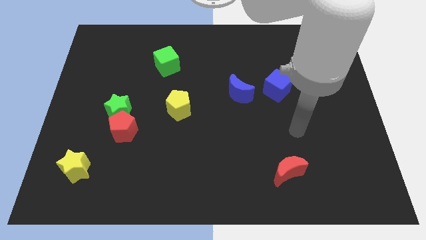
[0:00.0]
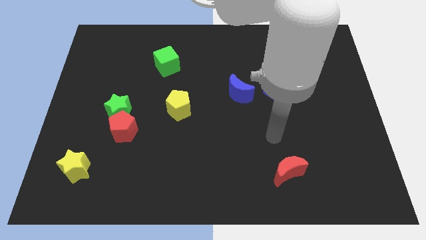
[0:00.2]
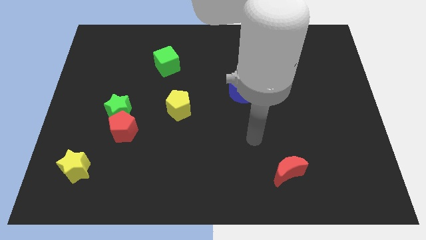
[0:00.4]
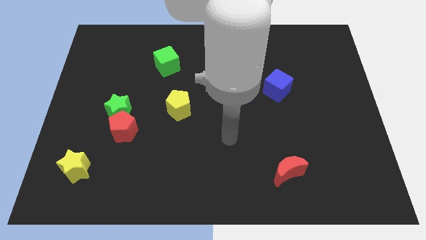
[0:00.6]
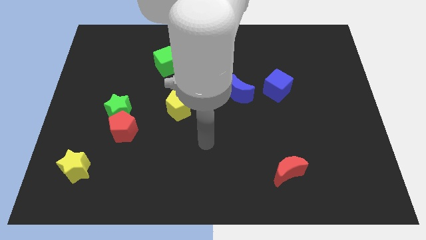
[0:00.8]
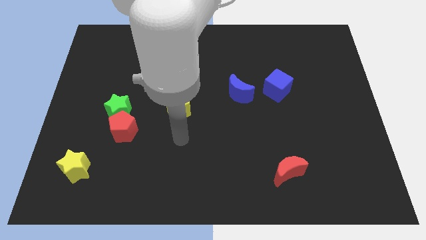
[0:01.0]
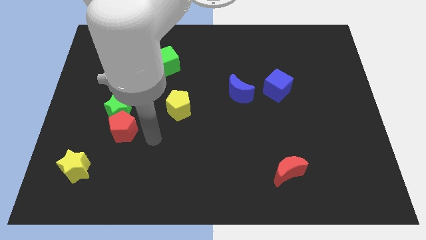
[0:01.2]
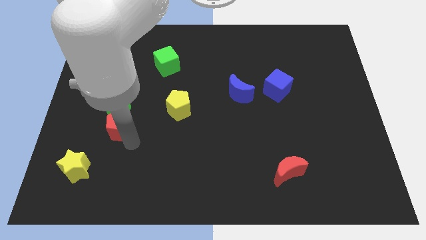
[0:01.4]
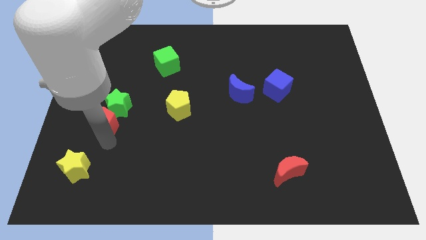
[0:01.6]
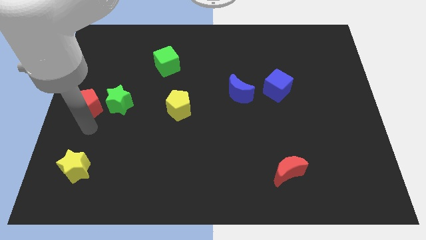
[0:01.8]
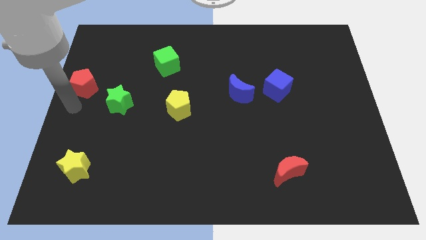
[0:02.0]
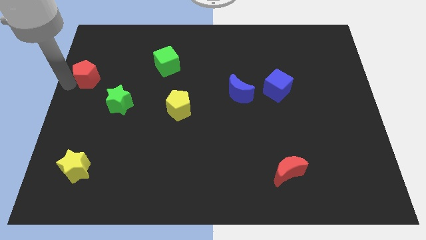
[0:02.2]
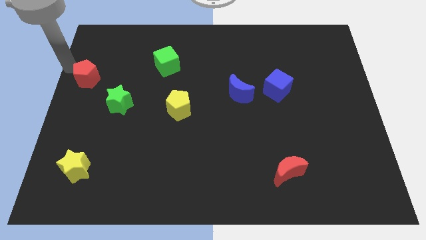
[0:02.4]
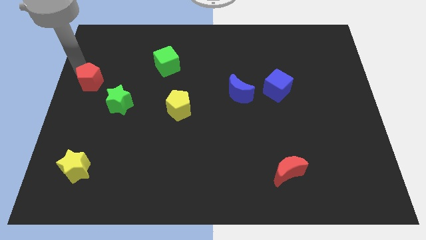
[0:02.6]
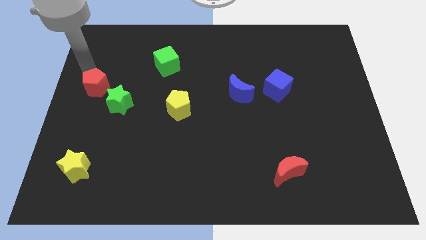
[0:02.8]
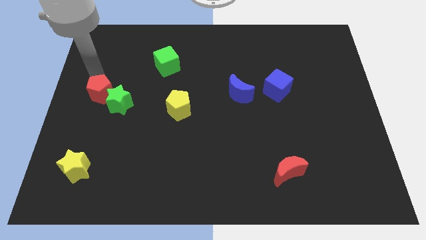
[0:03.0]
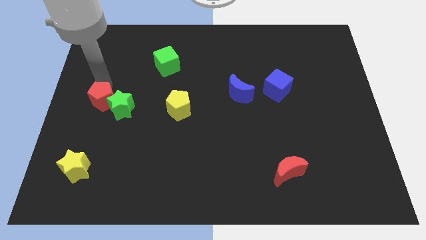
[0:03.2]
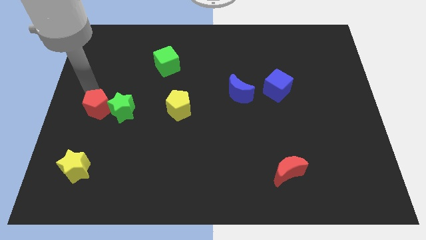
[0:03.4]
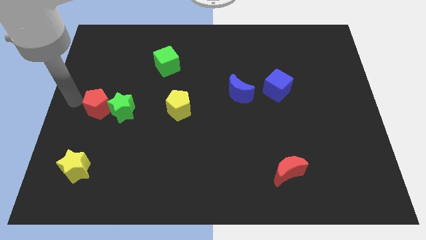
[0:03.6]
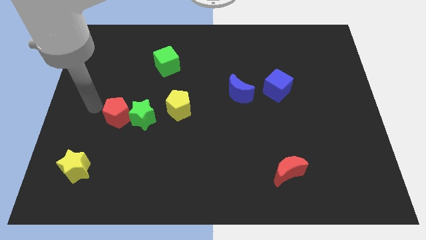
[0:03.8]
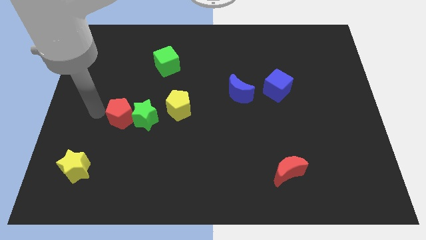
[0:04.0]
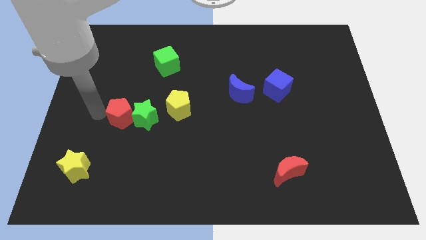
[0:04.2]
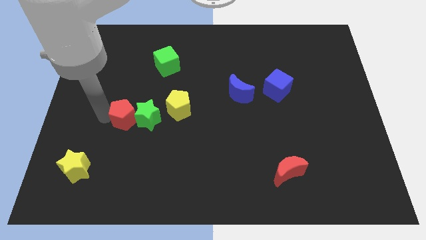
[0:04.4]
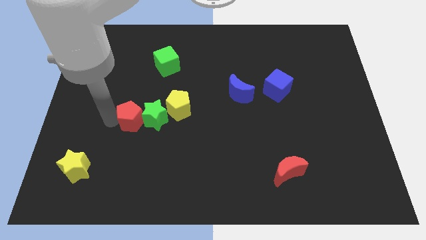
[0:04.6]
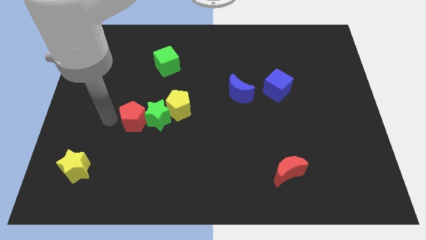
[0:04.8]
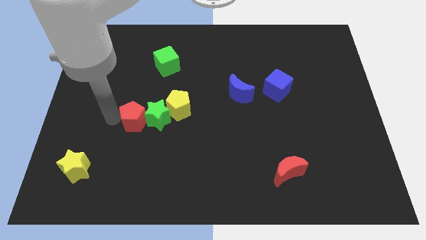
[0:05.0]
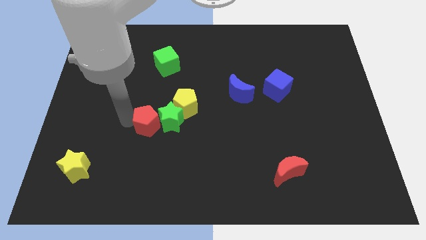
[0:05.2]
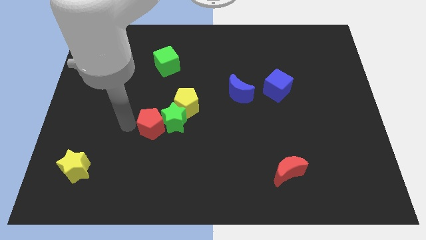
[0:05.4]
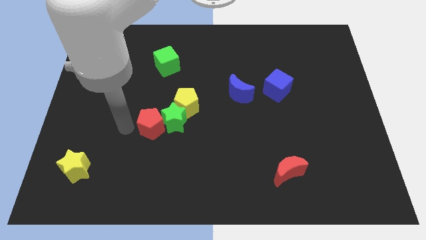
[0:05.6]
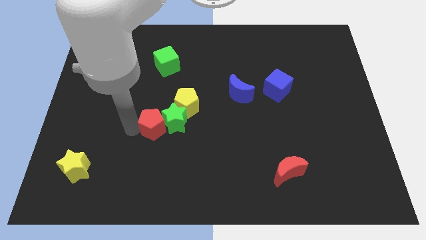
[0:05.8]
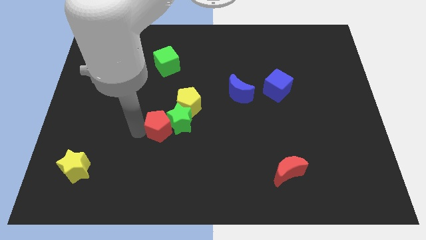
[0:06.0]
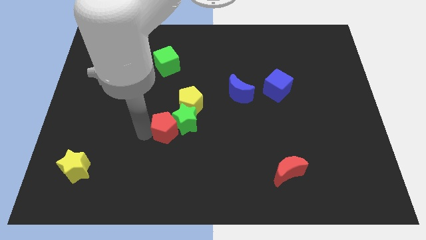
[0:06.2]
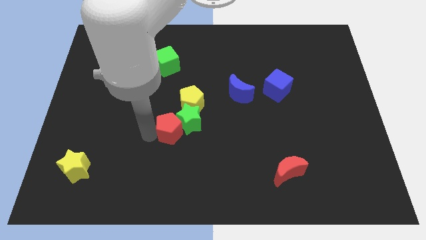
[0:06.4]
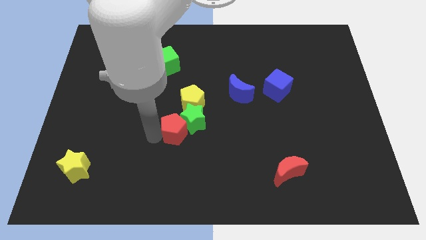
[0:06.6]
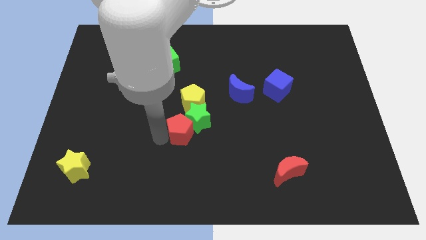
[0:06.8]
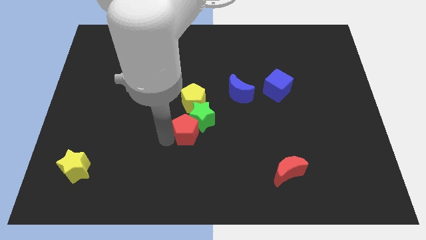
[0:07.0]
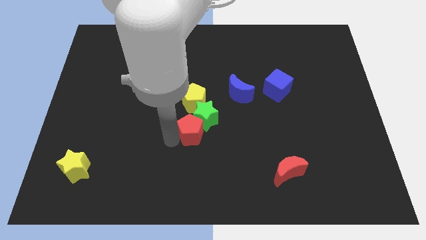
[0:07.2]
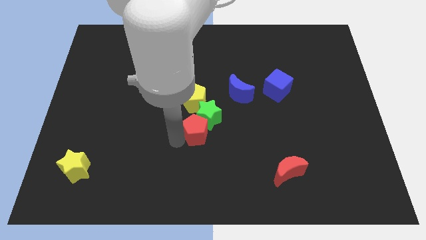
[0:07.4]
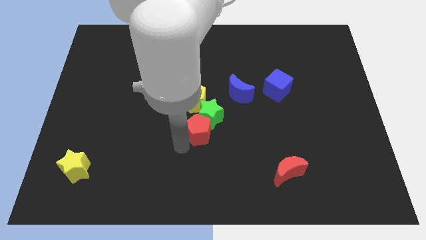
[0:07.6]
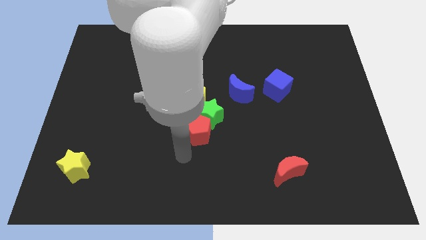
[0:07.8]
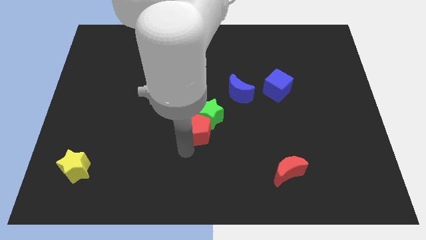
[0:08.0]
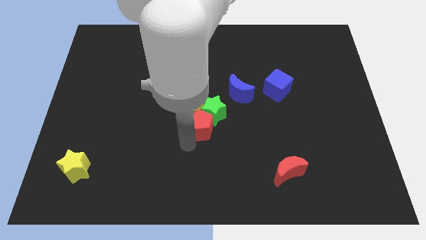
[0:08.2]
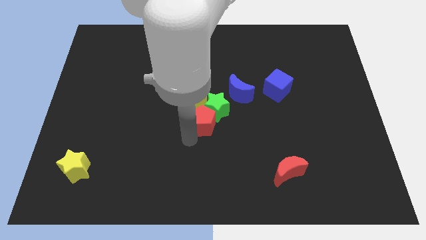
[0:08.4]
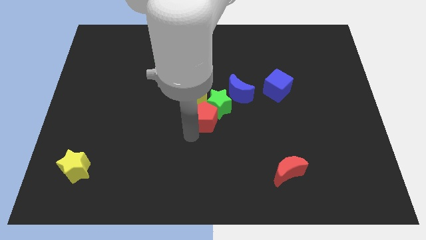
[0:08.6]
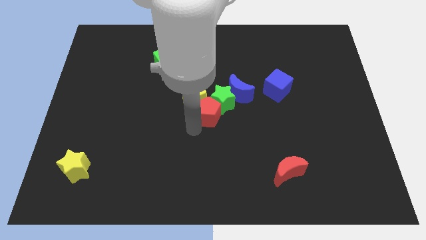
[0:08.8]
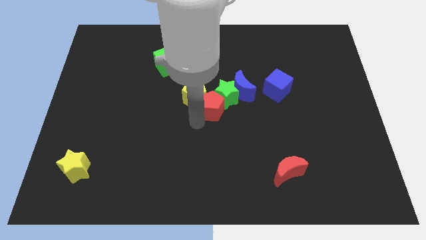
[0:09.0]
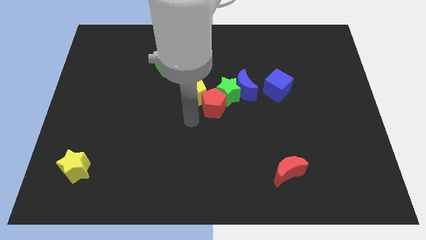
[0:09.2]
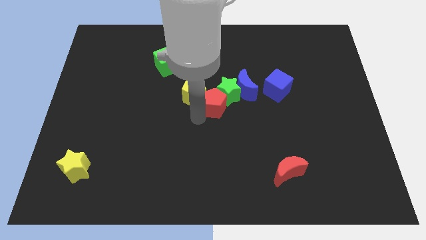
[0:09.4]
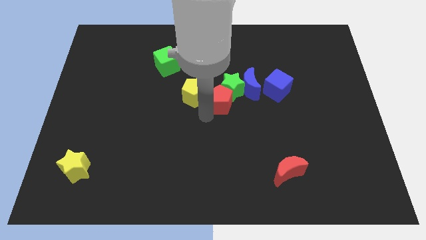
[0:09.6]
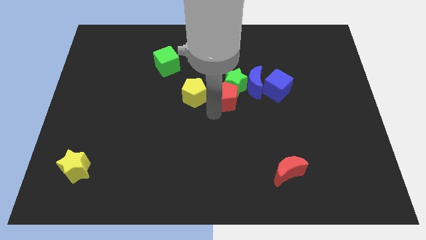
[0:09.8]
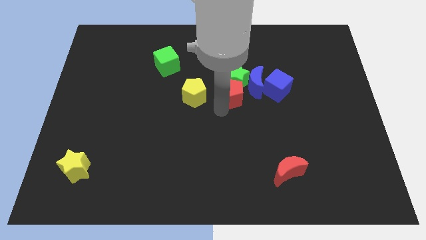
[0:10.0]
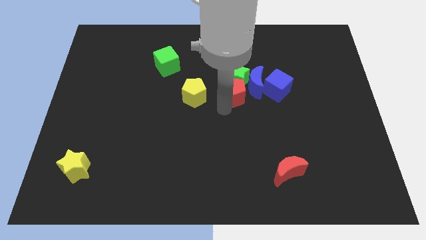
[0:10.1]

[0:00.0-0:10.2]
slide the red pentagon to the blue moon

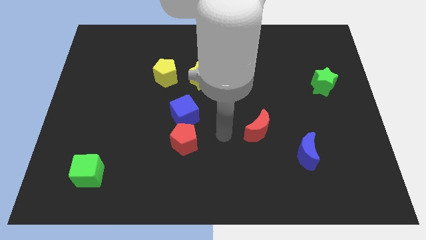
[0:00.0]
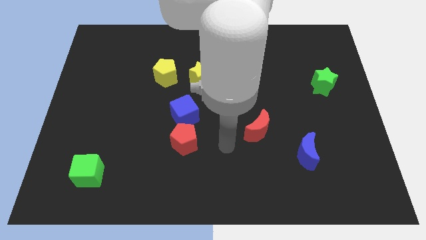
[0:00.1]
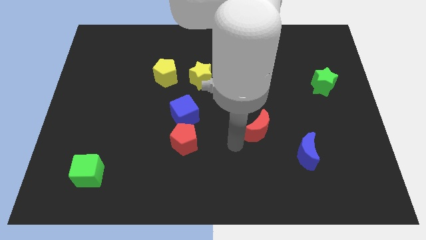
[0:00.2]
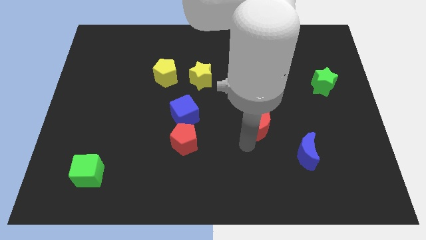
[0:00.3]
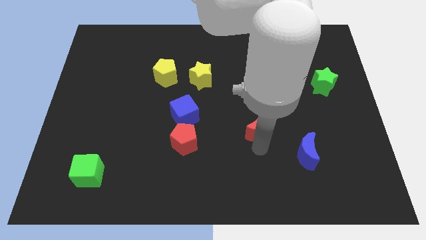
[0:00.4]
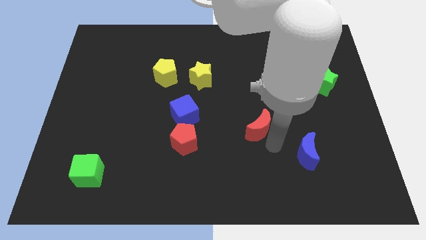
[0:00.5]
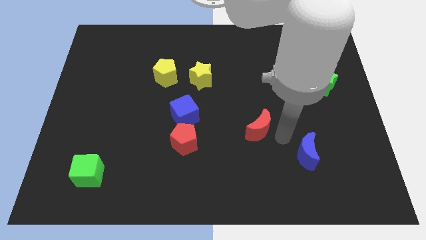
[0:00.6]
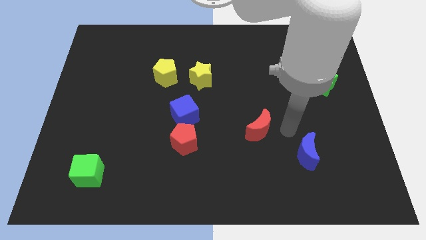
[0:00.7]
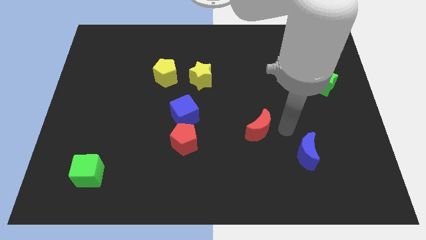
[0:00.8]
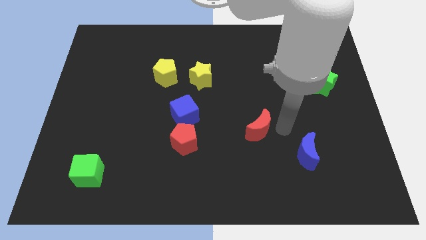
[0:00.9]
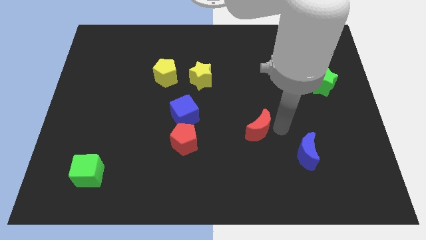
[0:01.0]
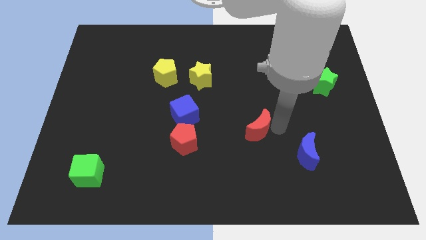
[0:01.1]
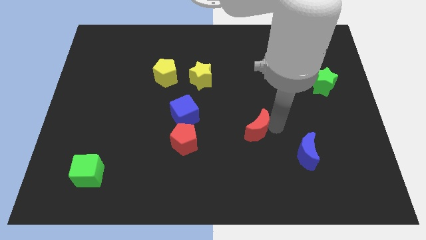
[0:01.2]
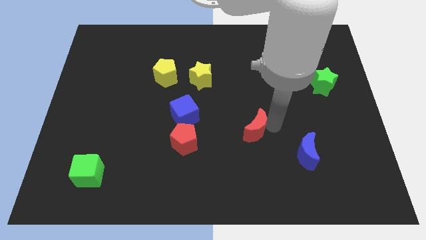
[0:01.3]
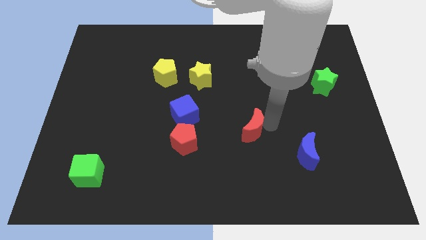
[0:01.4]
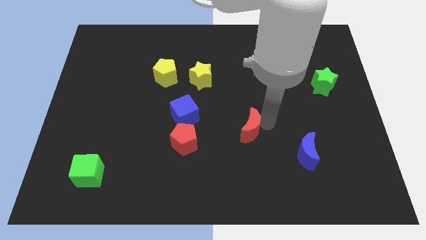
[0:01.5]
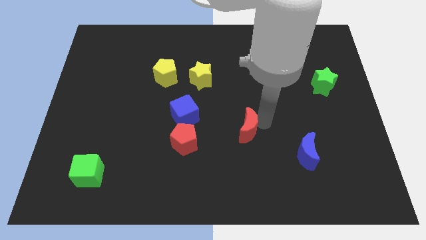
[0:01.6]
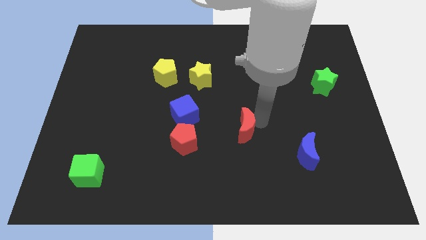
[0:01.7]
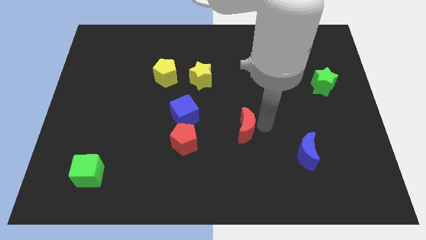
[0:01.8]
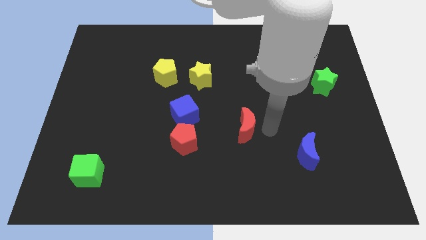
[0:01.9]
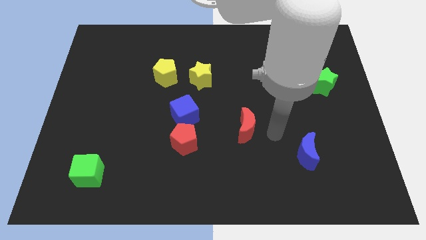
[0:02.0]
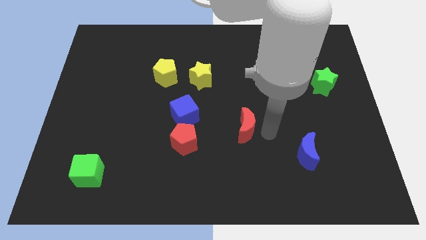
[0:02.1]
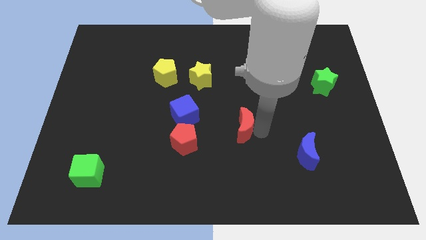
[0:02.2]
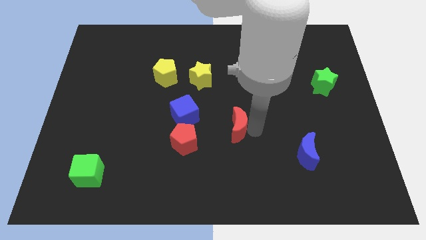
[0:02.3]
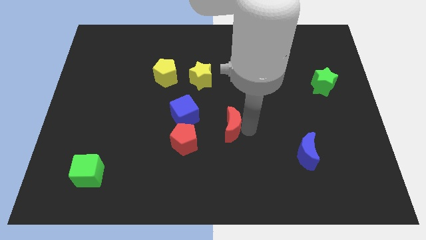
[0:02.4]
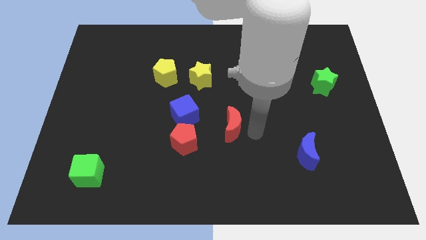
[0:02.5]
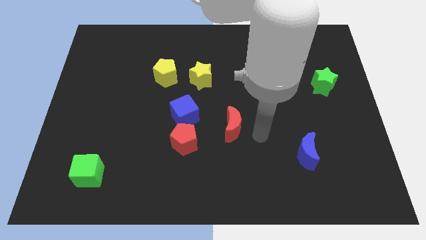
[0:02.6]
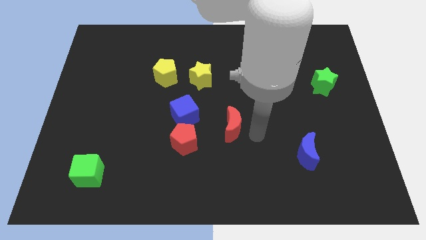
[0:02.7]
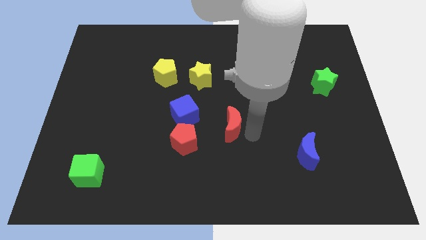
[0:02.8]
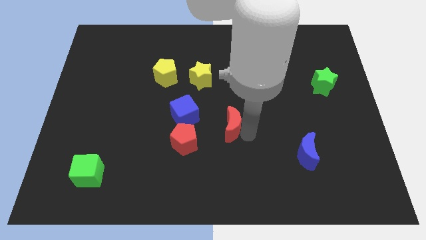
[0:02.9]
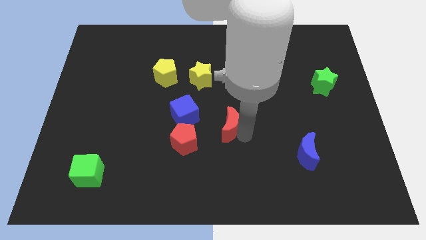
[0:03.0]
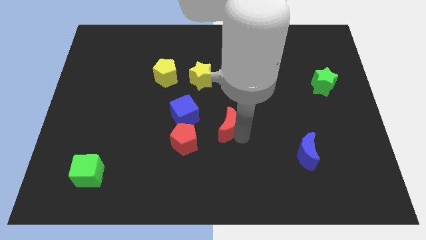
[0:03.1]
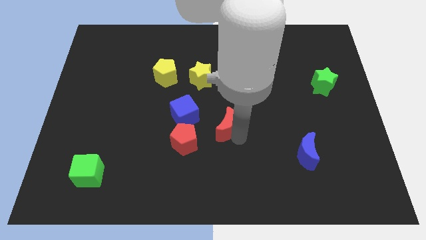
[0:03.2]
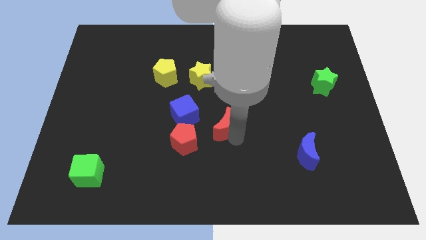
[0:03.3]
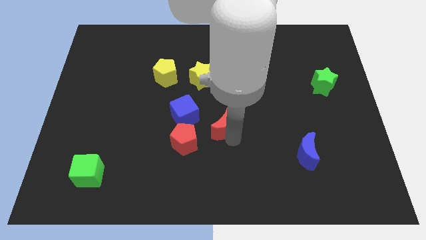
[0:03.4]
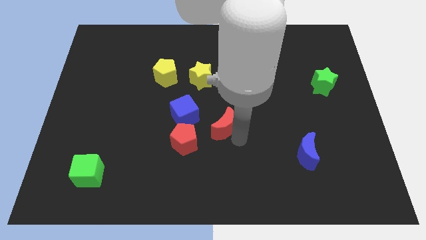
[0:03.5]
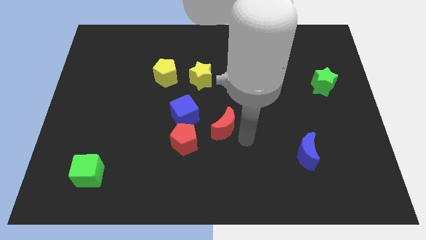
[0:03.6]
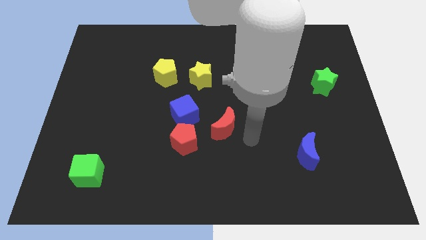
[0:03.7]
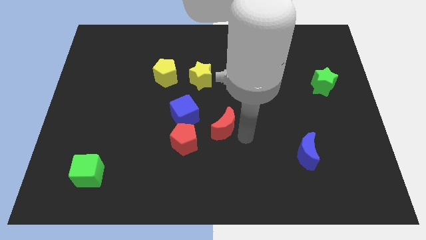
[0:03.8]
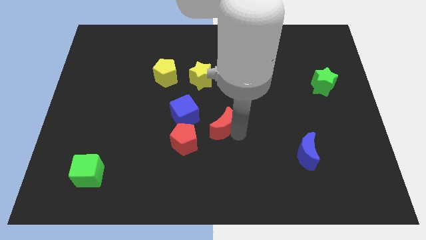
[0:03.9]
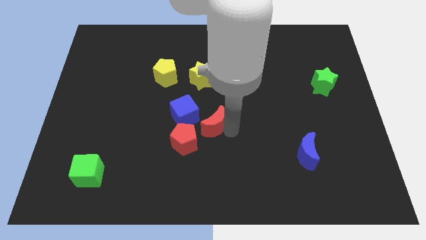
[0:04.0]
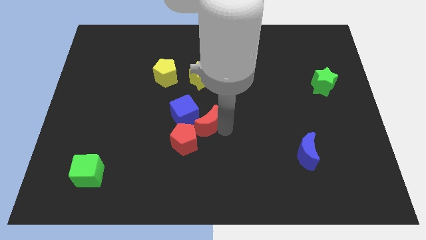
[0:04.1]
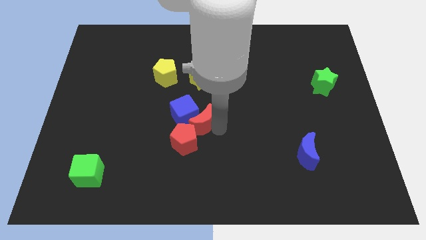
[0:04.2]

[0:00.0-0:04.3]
slide the red moon towards the blue cube
